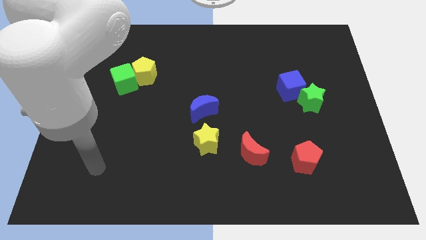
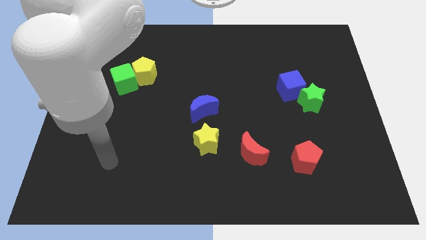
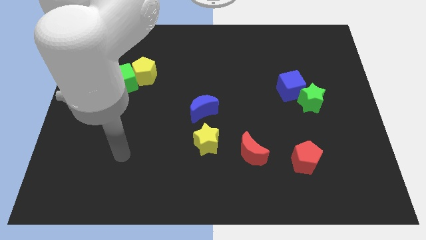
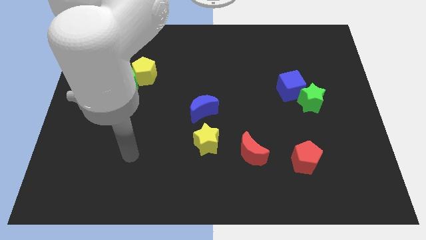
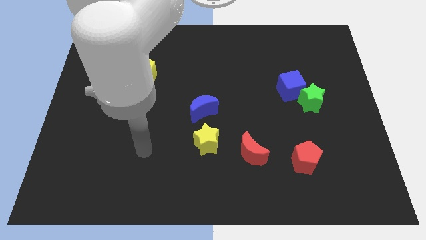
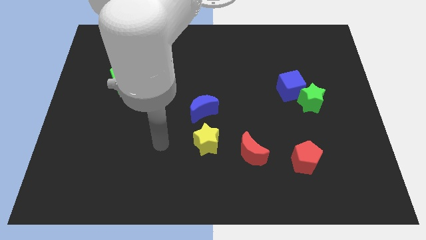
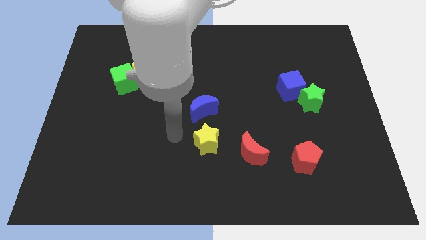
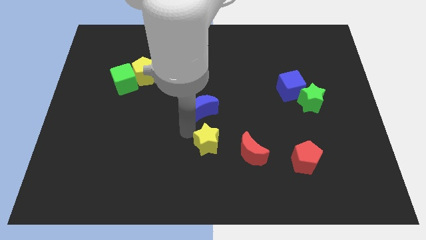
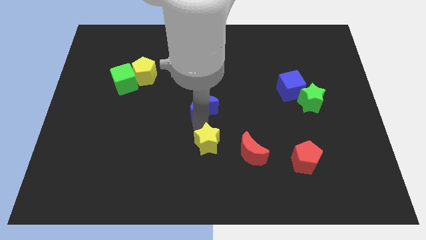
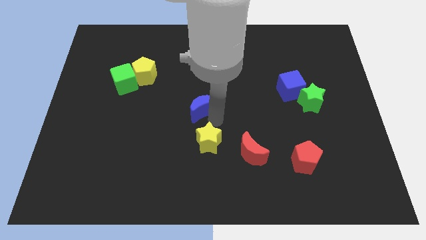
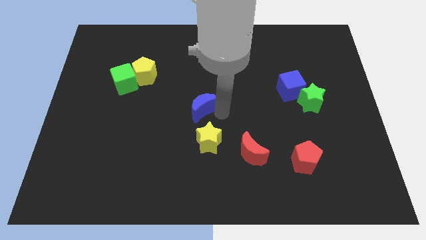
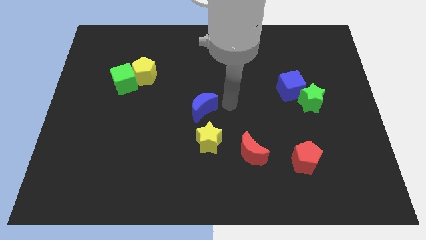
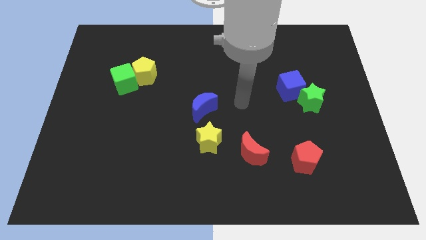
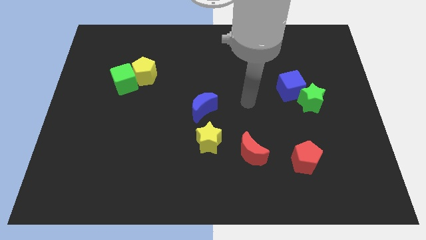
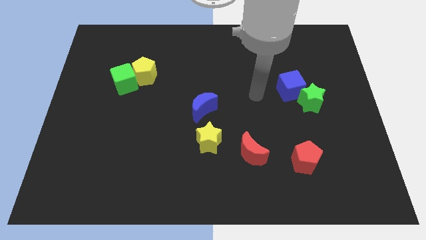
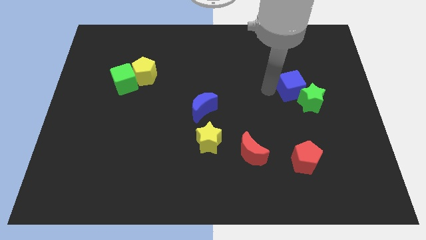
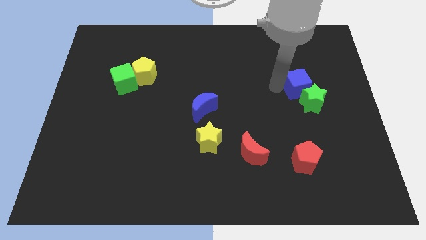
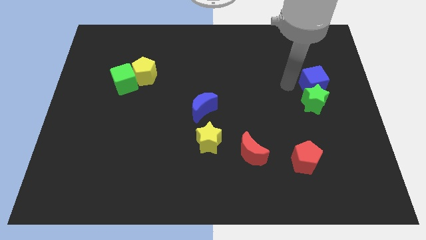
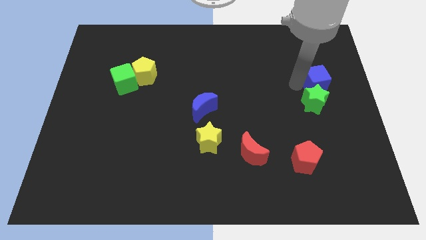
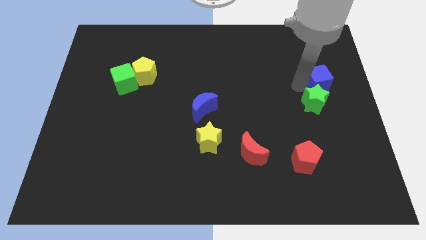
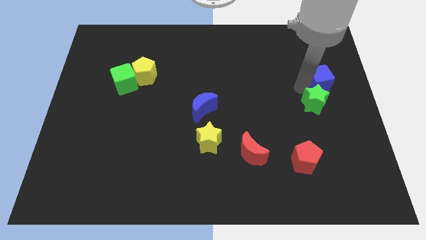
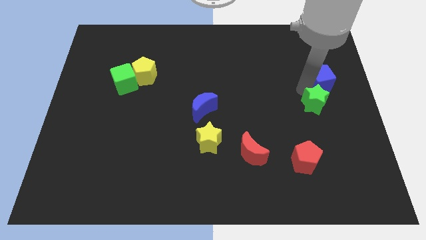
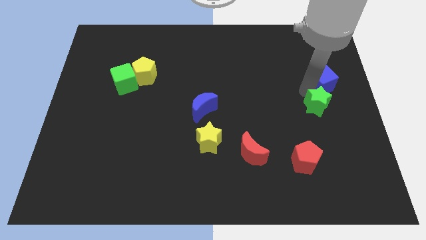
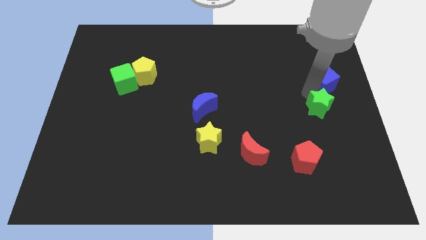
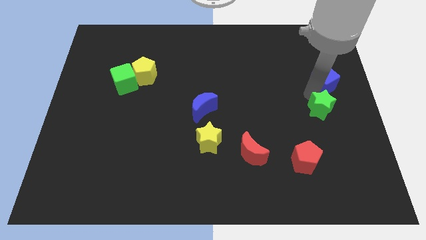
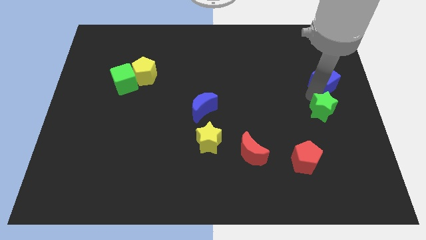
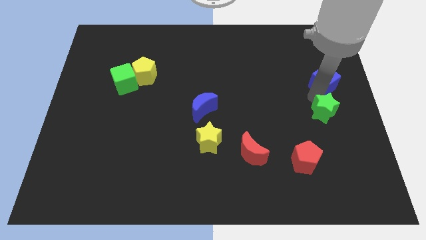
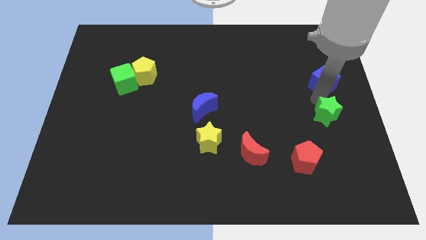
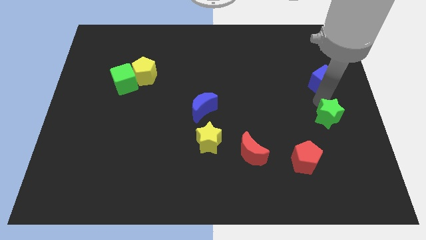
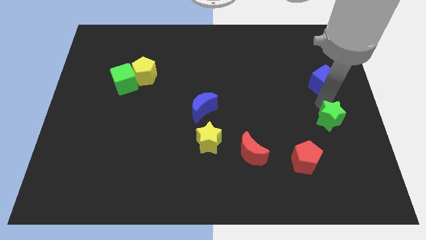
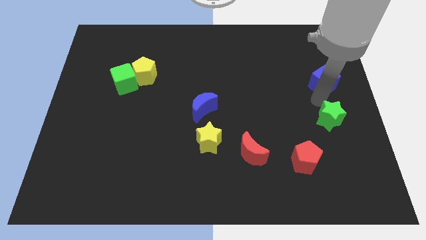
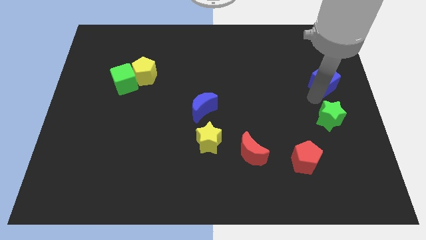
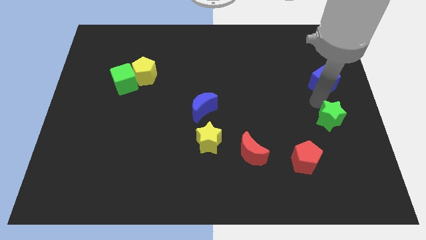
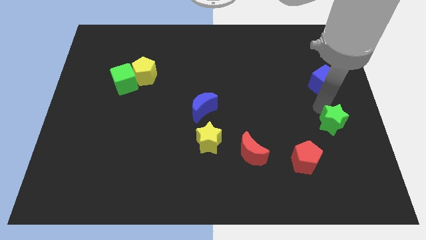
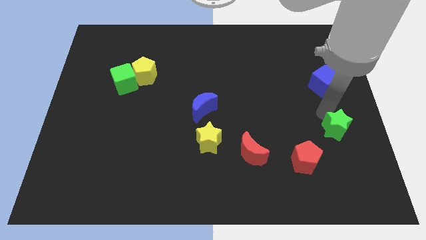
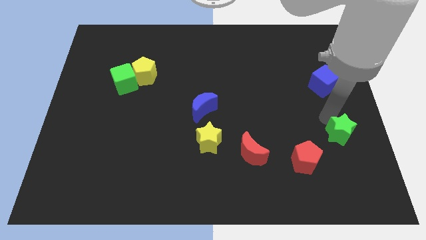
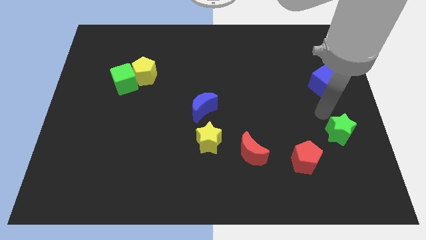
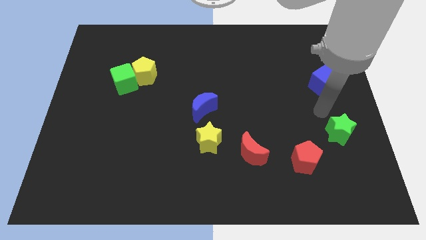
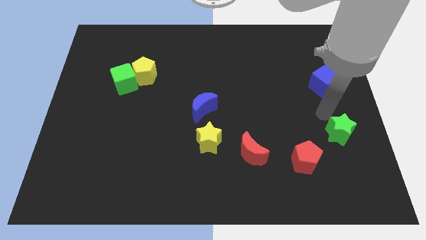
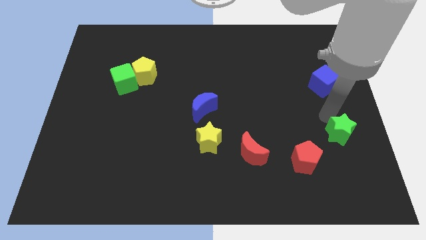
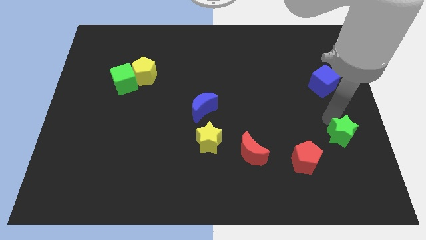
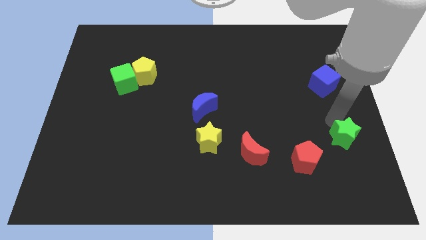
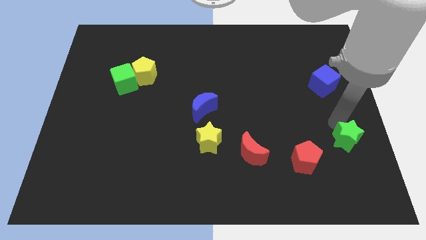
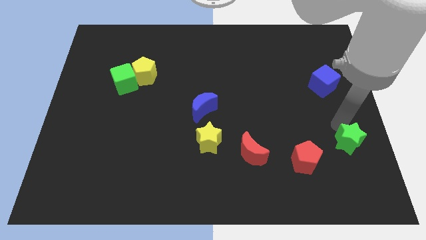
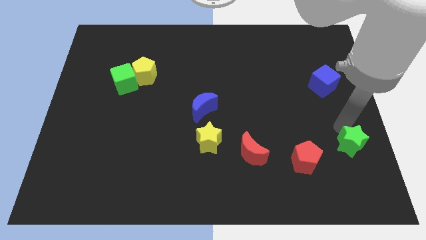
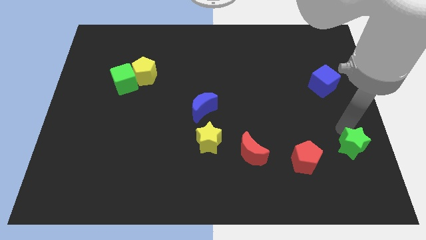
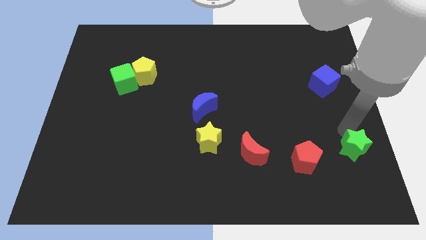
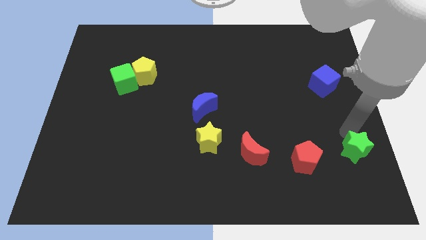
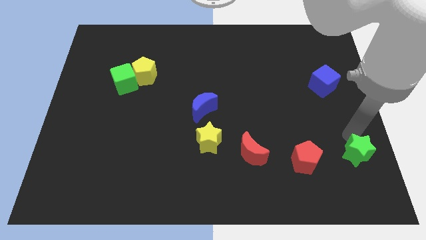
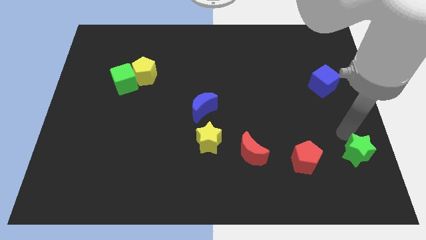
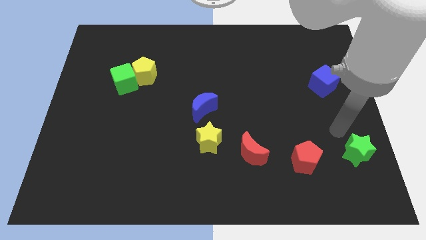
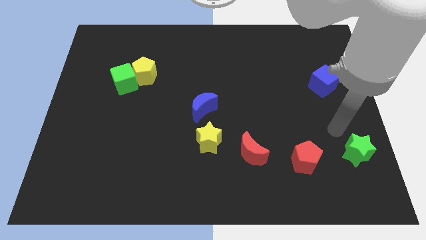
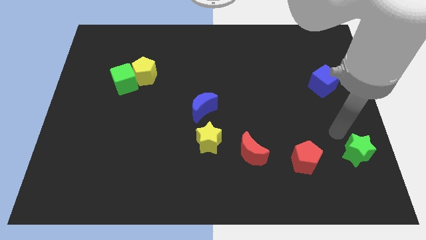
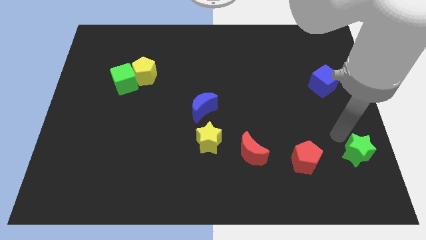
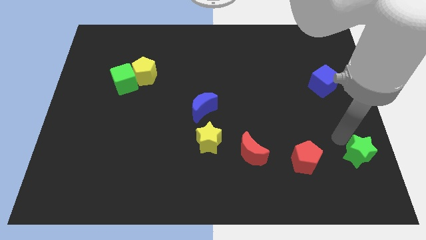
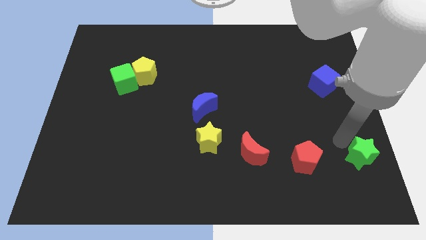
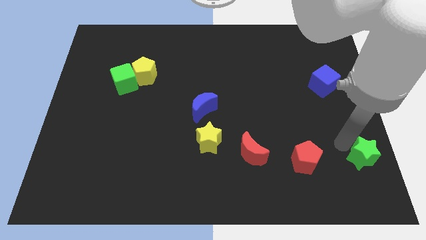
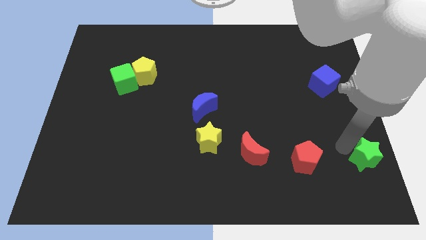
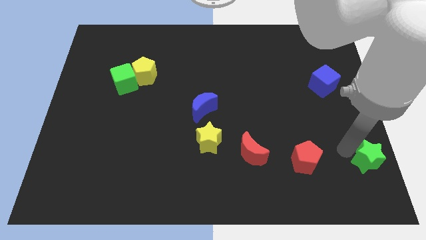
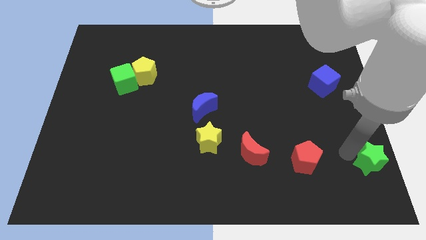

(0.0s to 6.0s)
put the green star to the bottom right corner

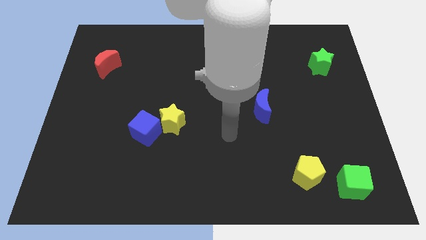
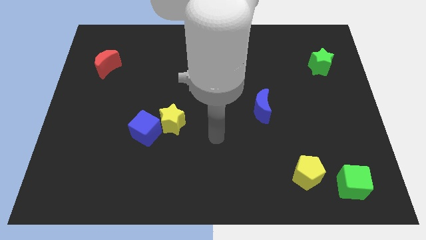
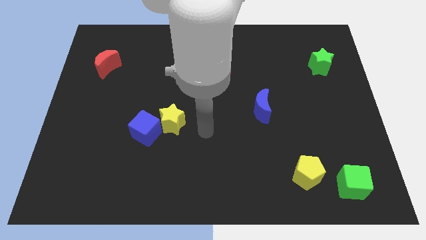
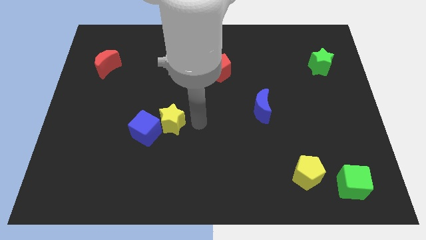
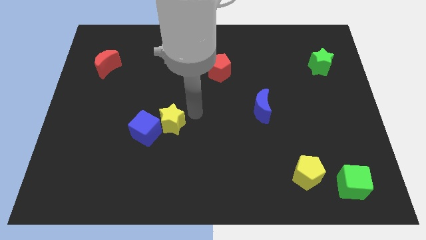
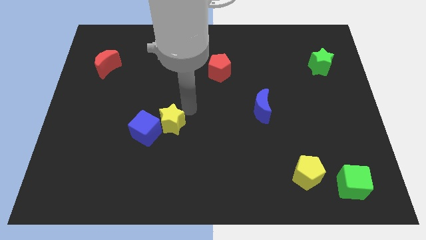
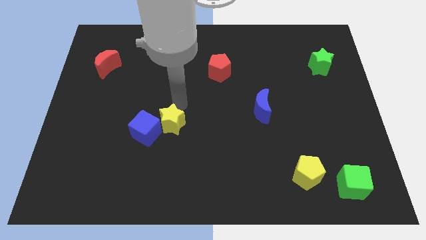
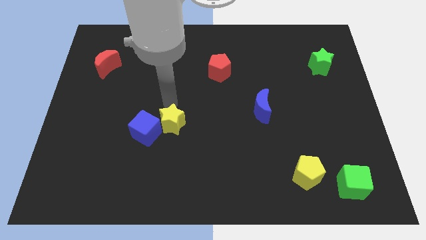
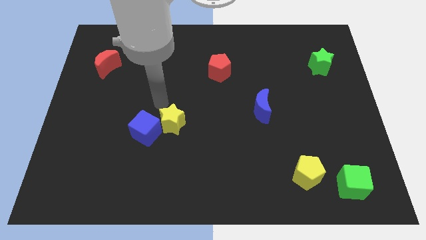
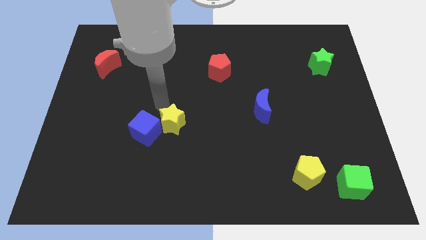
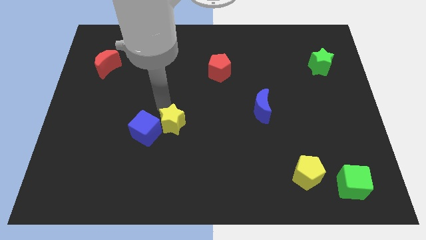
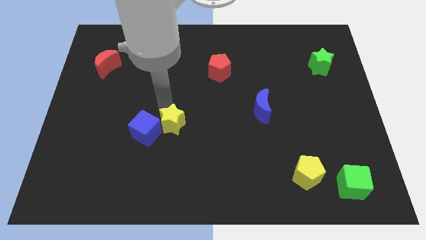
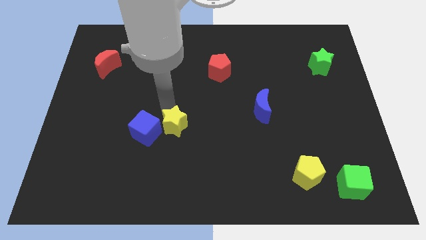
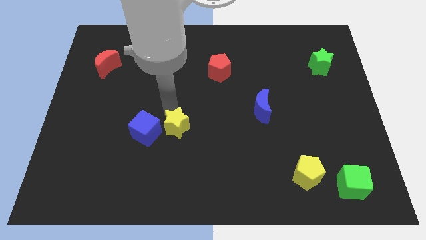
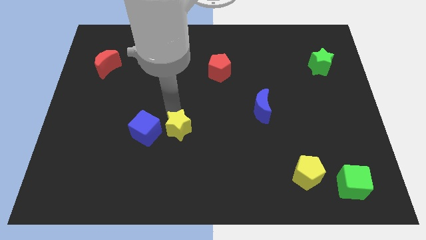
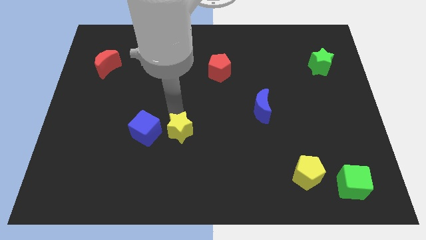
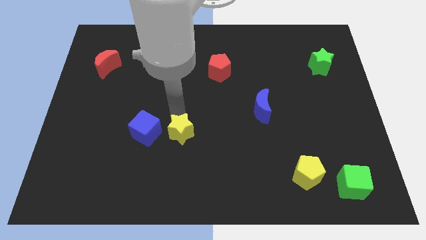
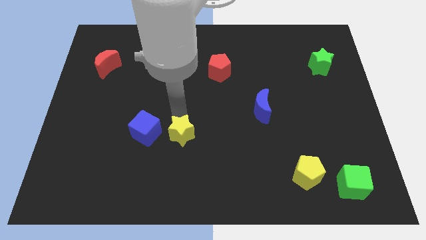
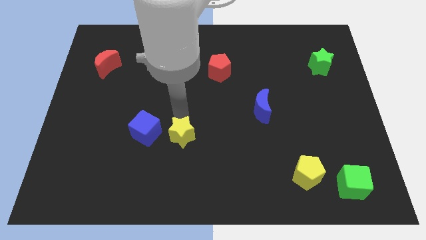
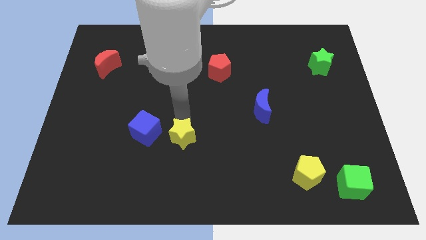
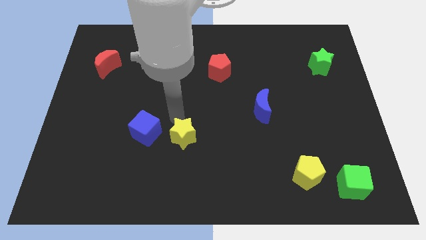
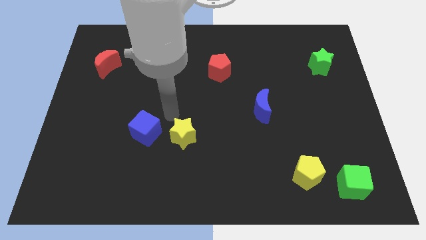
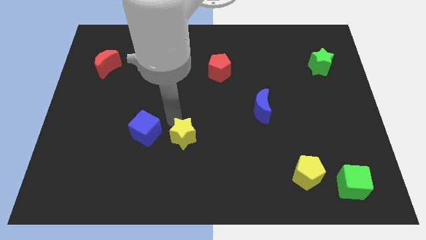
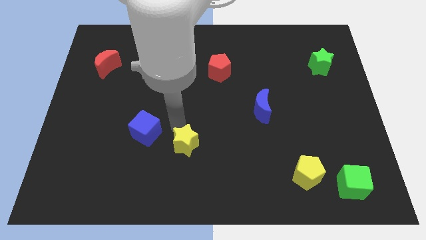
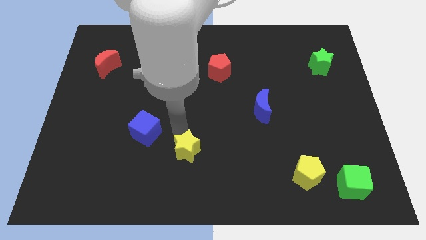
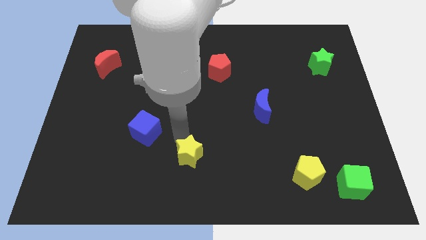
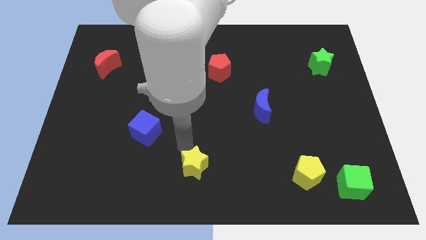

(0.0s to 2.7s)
move the yellow star to the bottom
